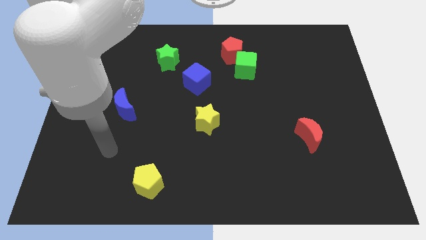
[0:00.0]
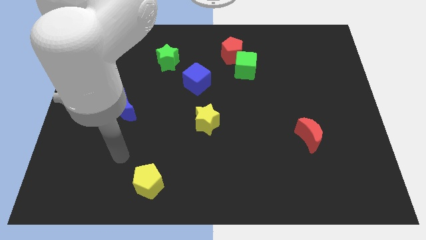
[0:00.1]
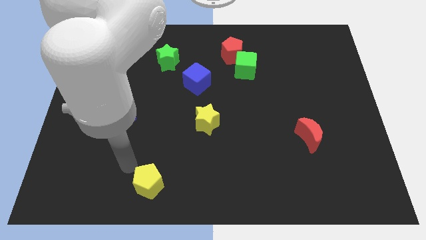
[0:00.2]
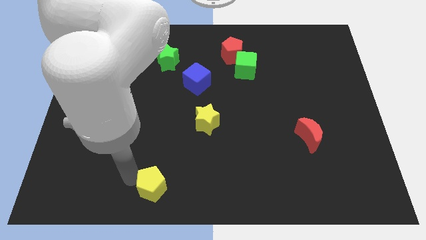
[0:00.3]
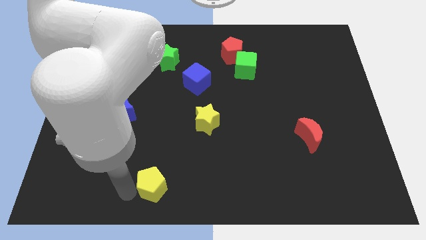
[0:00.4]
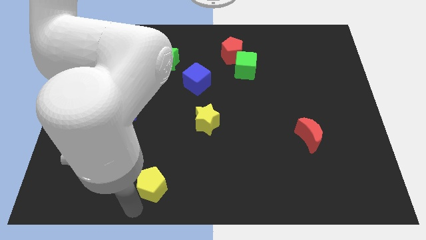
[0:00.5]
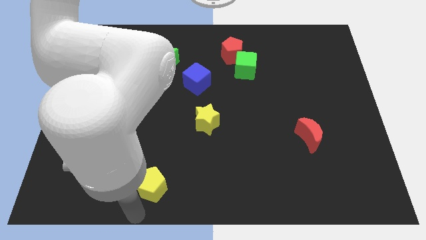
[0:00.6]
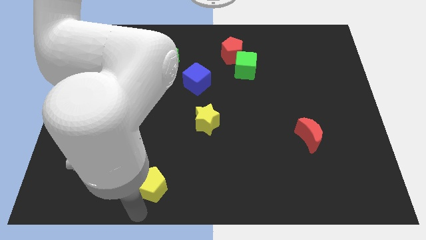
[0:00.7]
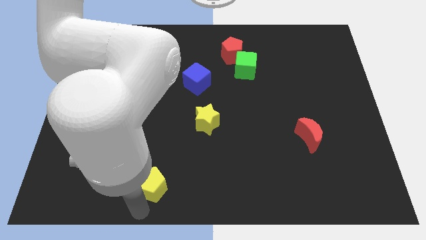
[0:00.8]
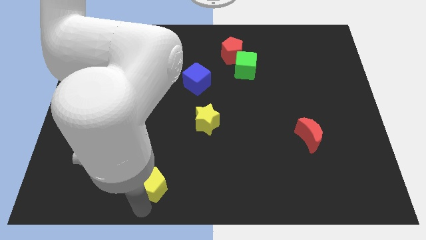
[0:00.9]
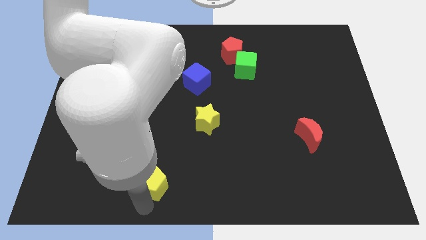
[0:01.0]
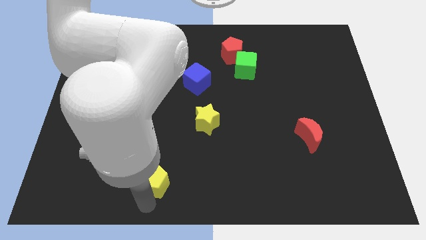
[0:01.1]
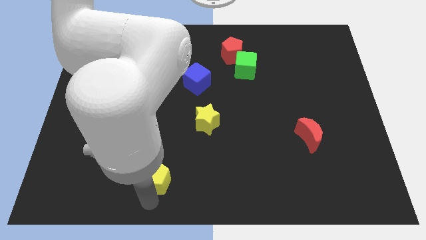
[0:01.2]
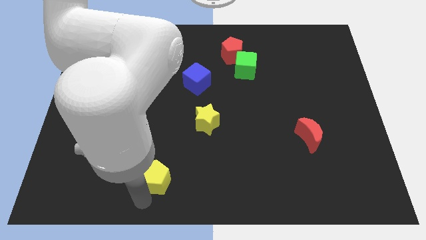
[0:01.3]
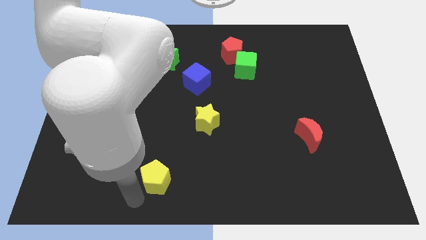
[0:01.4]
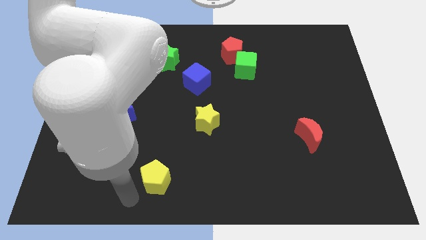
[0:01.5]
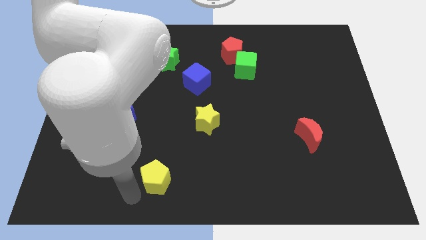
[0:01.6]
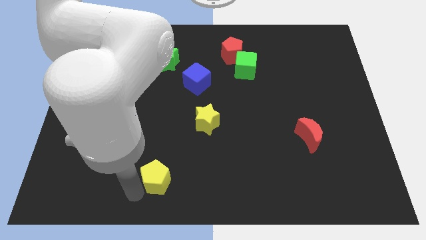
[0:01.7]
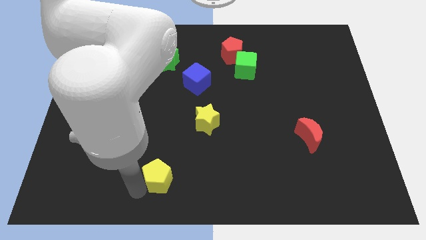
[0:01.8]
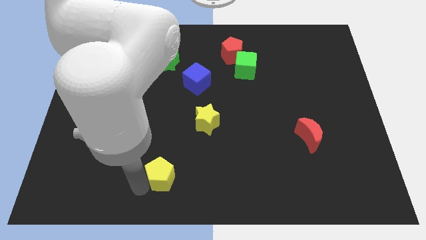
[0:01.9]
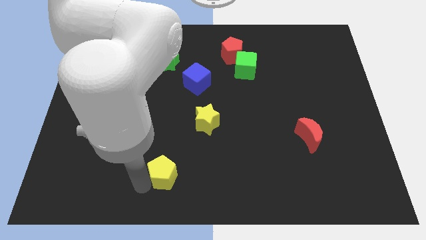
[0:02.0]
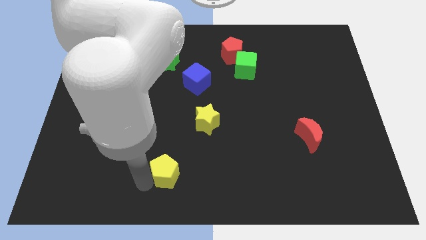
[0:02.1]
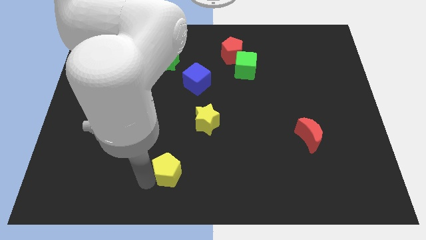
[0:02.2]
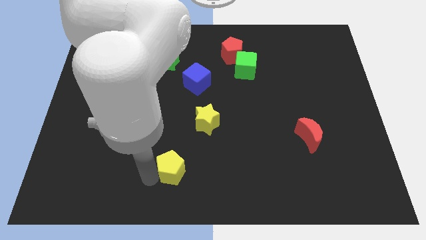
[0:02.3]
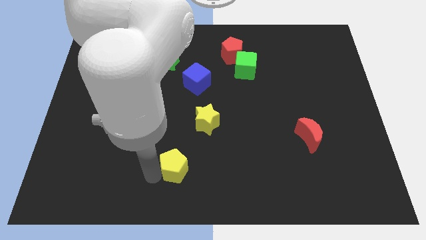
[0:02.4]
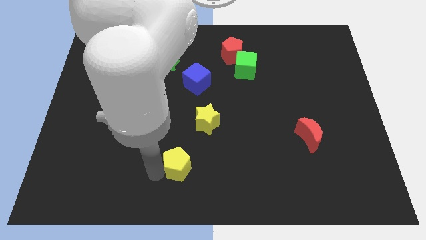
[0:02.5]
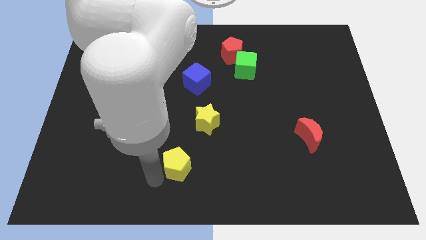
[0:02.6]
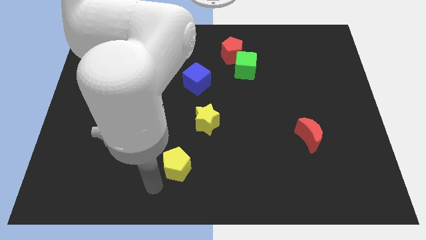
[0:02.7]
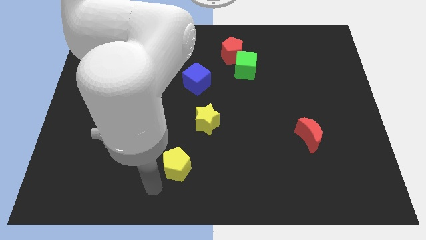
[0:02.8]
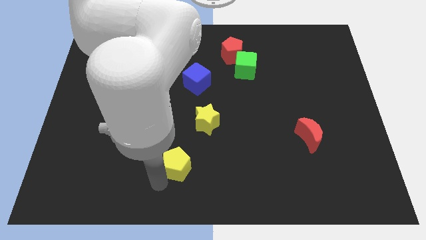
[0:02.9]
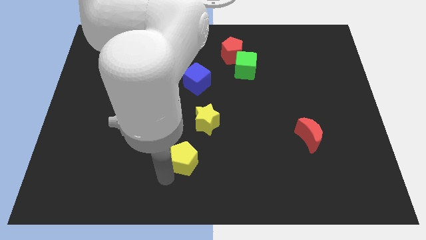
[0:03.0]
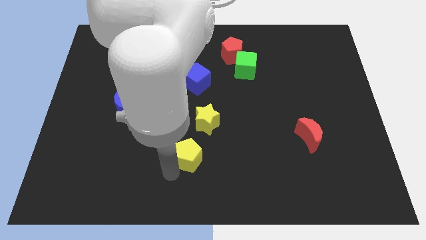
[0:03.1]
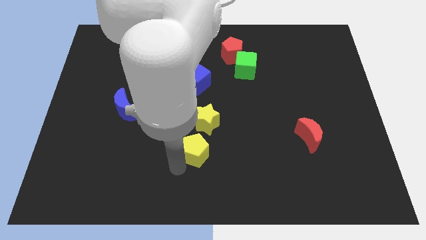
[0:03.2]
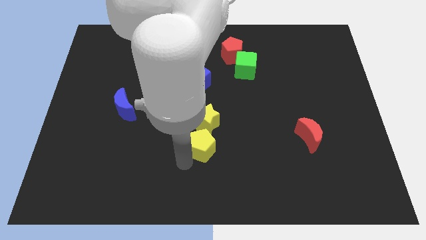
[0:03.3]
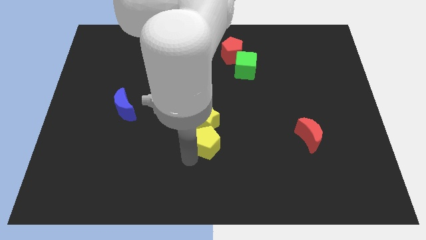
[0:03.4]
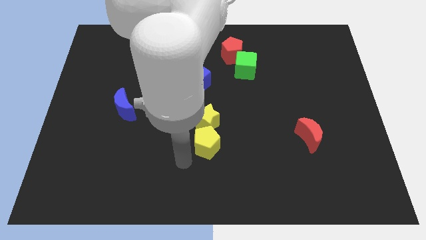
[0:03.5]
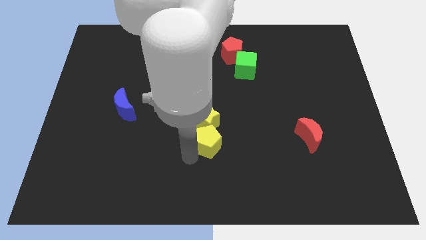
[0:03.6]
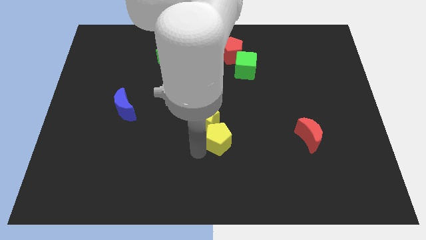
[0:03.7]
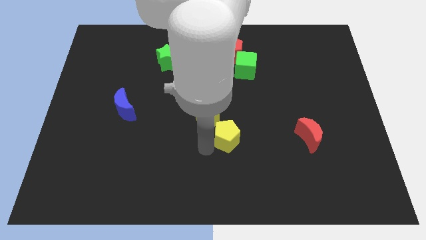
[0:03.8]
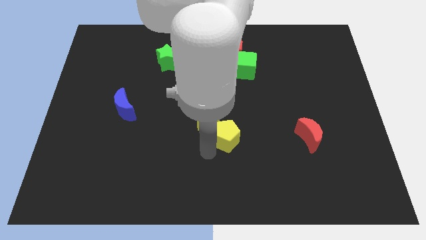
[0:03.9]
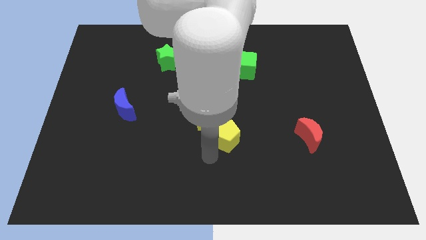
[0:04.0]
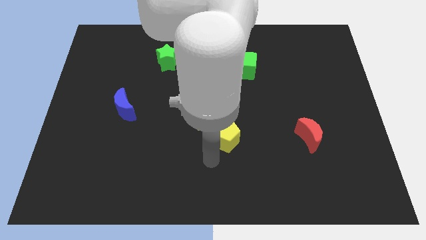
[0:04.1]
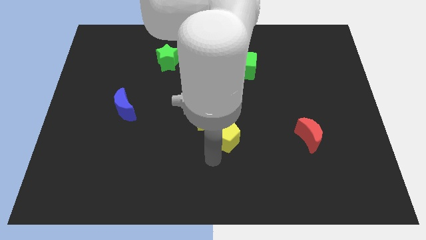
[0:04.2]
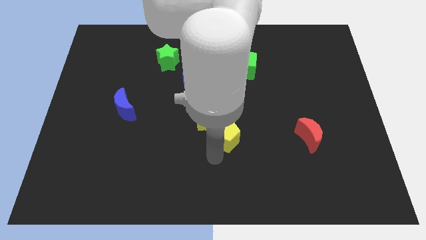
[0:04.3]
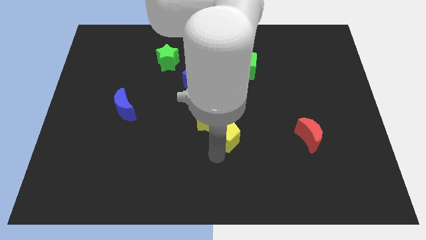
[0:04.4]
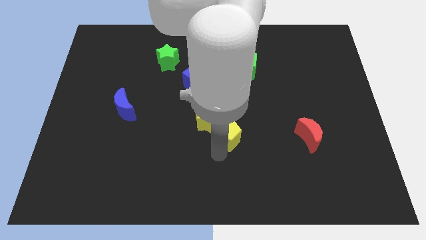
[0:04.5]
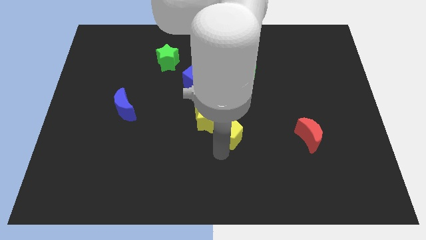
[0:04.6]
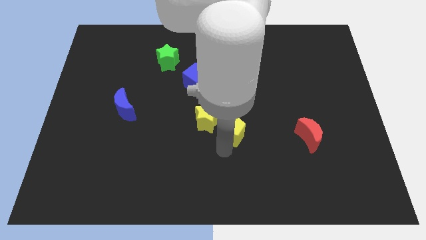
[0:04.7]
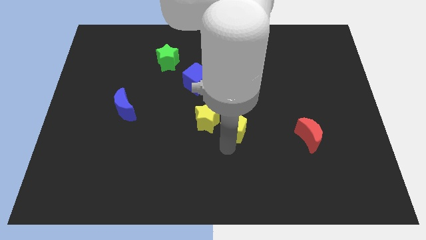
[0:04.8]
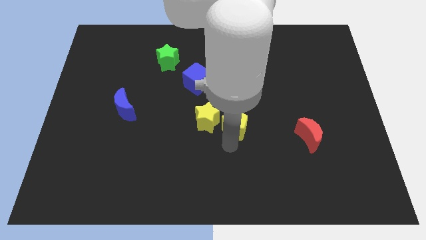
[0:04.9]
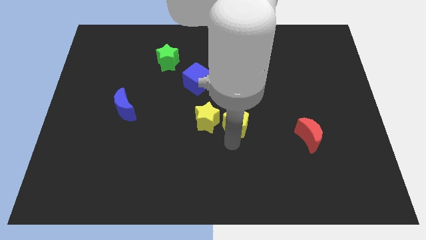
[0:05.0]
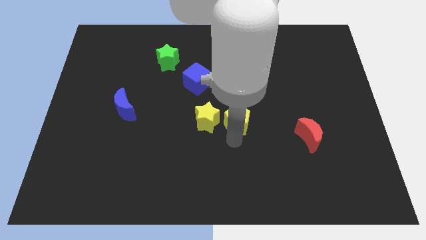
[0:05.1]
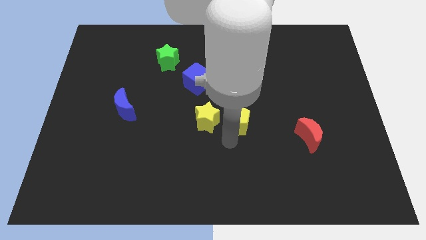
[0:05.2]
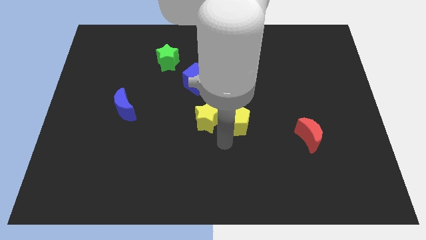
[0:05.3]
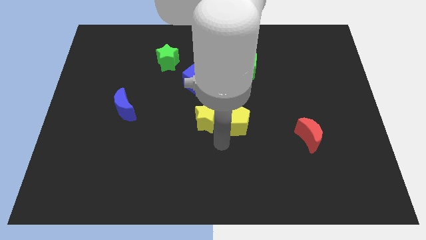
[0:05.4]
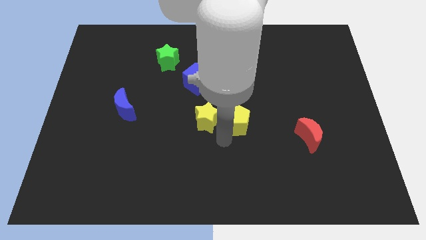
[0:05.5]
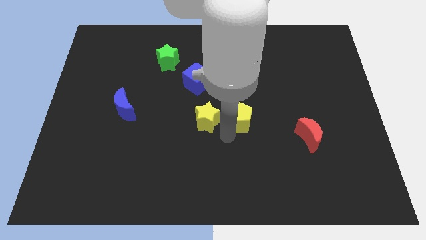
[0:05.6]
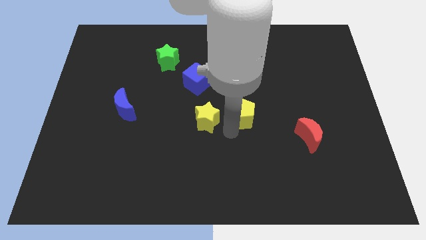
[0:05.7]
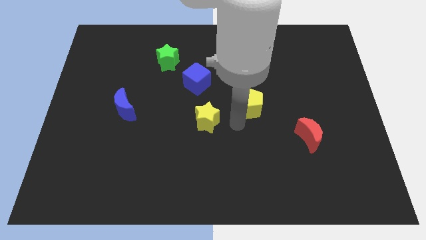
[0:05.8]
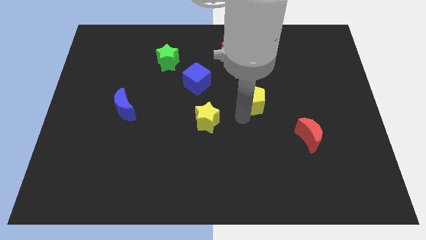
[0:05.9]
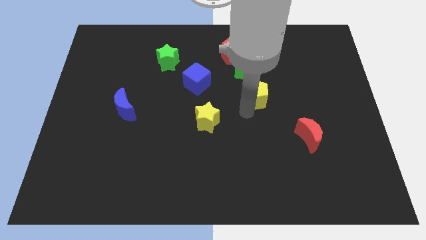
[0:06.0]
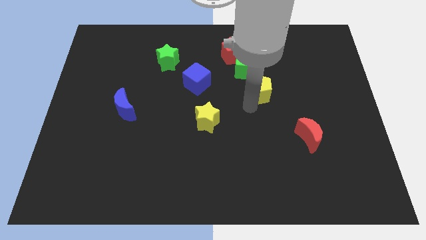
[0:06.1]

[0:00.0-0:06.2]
put the yellow pentagon to the bottom right of the green cube

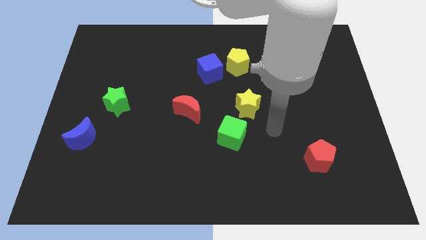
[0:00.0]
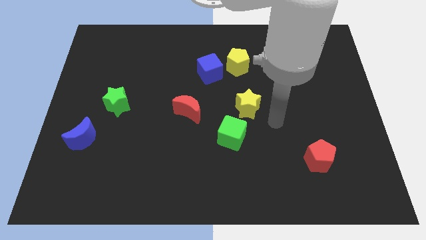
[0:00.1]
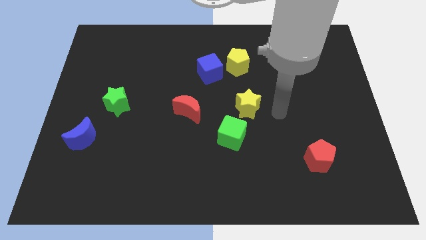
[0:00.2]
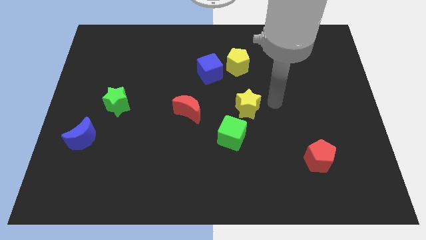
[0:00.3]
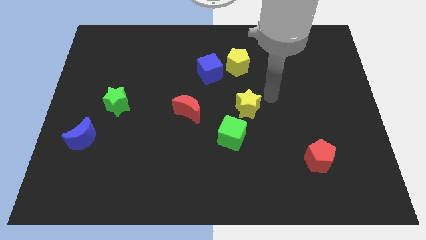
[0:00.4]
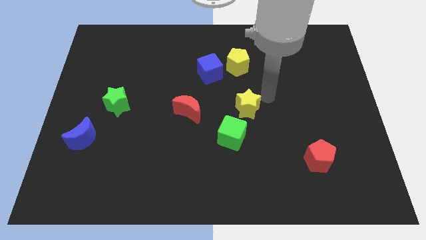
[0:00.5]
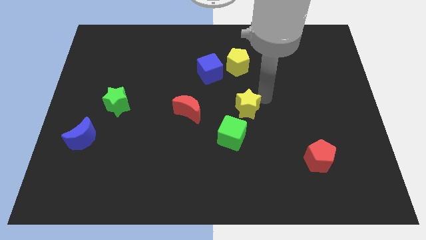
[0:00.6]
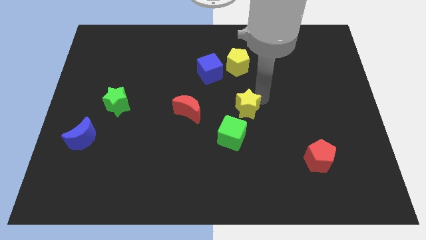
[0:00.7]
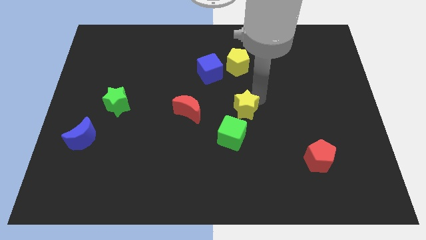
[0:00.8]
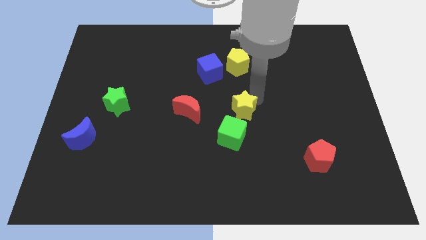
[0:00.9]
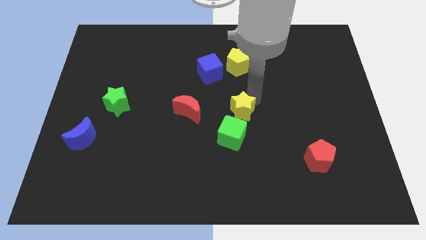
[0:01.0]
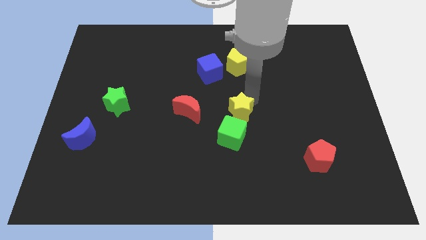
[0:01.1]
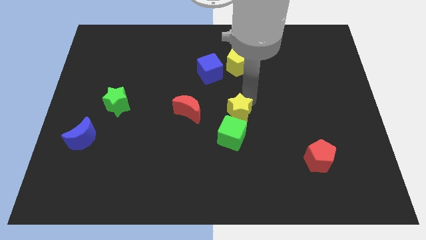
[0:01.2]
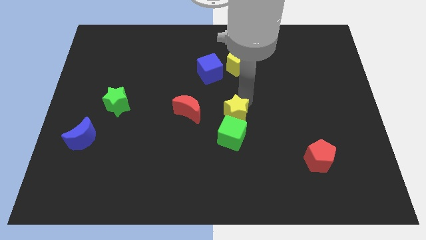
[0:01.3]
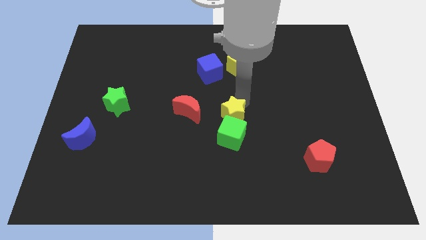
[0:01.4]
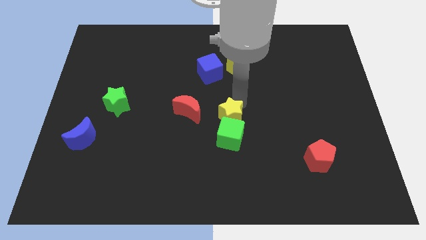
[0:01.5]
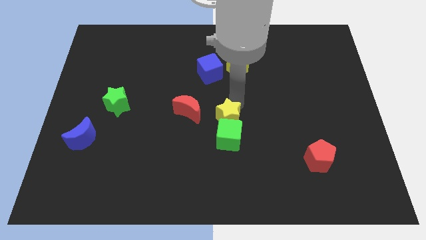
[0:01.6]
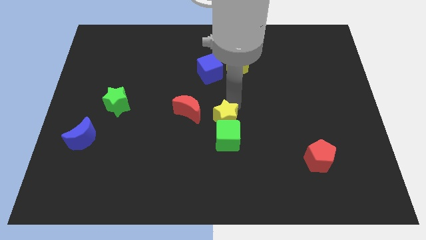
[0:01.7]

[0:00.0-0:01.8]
slide the yellow star to the bottom right side of the red moon
